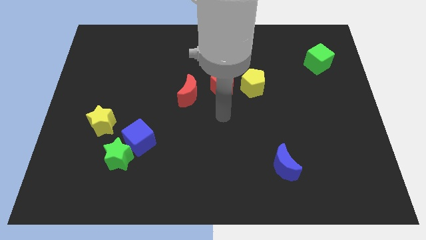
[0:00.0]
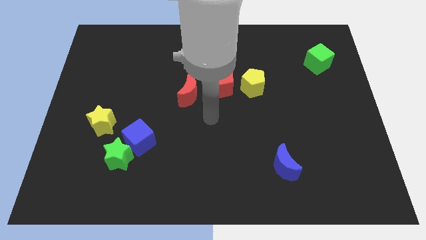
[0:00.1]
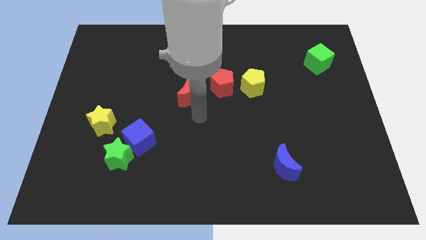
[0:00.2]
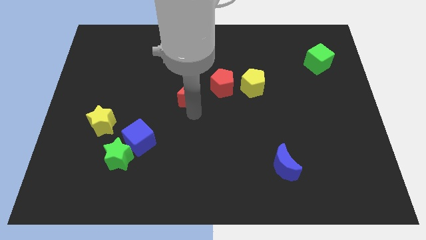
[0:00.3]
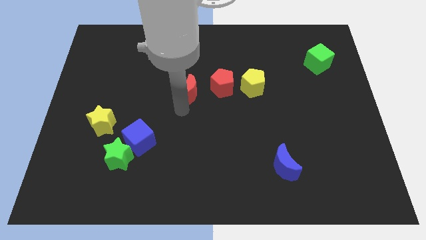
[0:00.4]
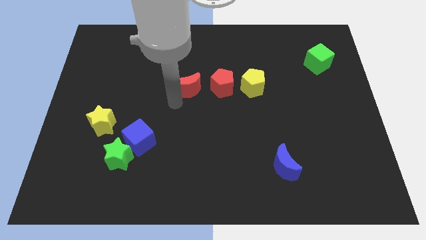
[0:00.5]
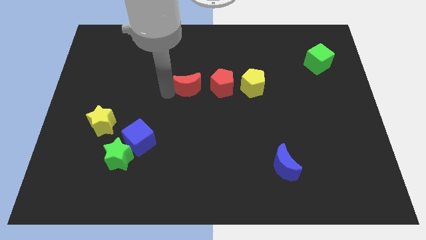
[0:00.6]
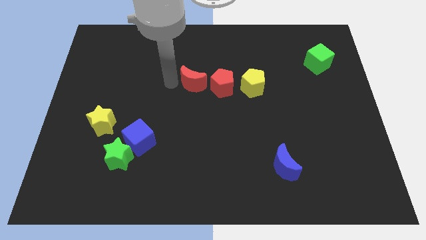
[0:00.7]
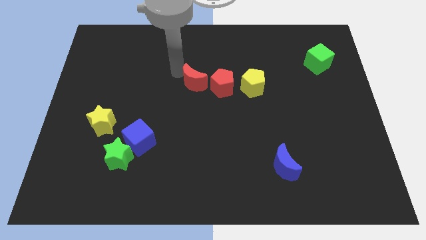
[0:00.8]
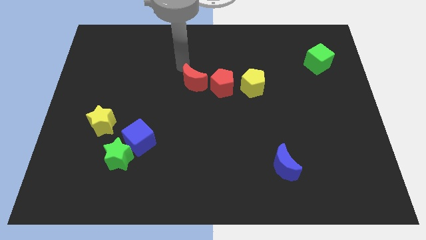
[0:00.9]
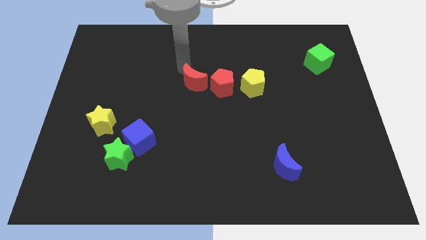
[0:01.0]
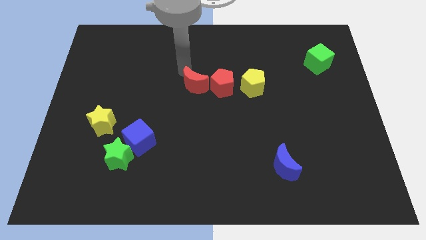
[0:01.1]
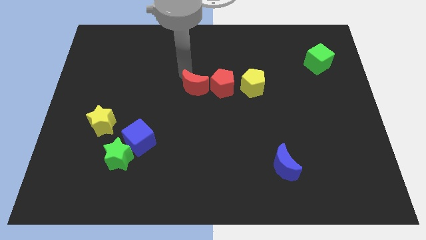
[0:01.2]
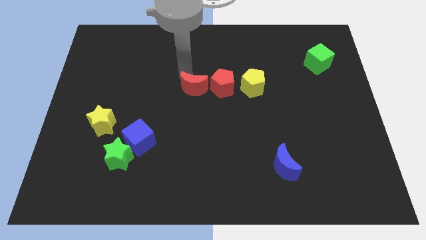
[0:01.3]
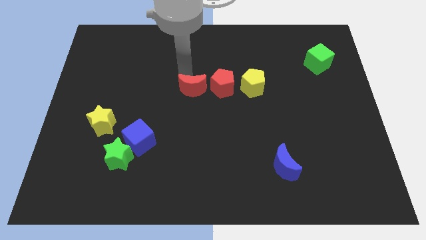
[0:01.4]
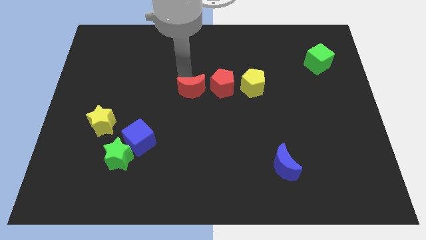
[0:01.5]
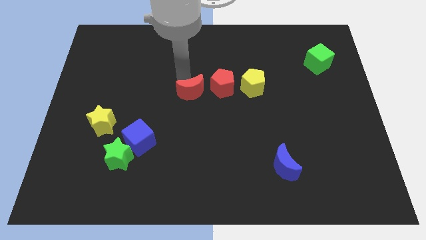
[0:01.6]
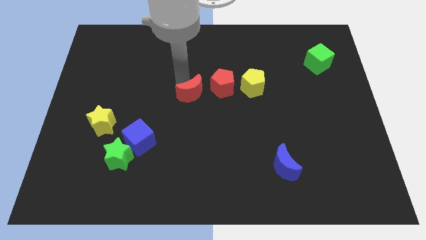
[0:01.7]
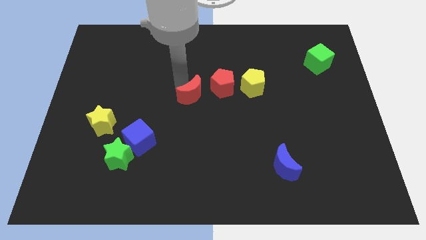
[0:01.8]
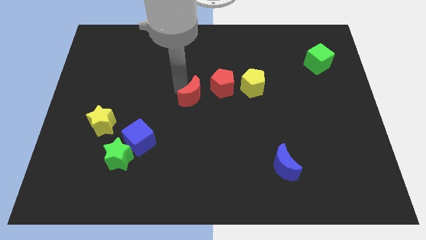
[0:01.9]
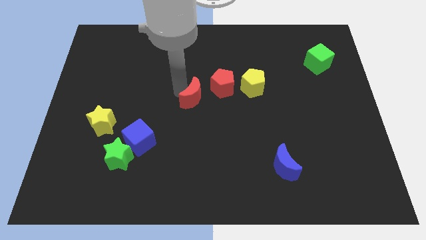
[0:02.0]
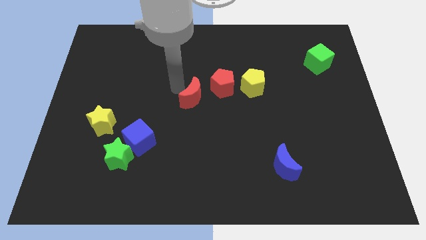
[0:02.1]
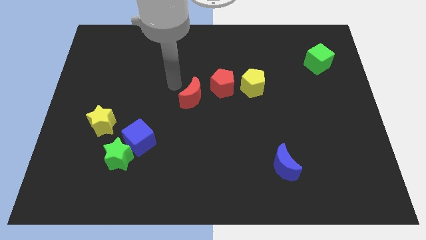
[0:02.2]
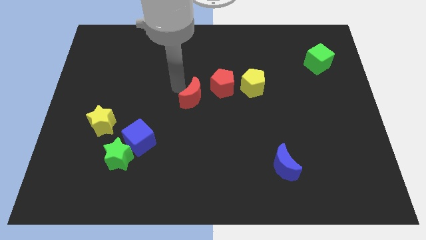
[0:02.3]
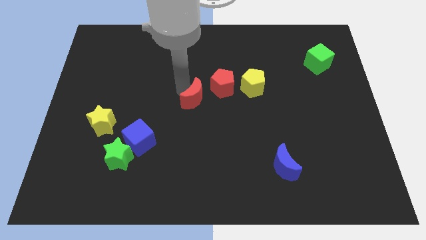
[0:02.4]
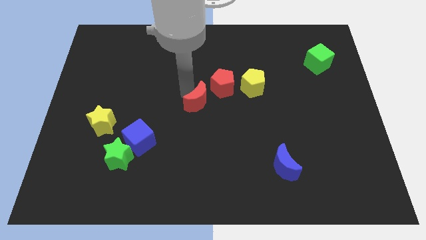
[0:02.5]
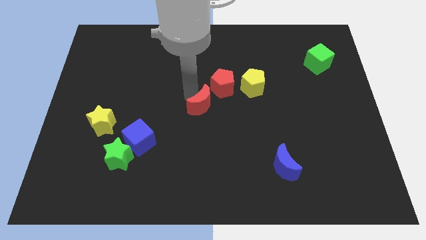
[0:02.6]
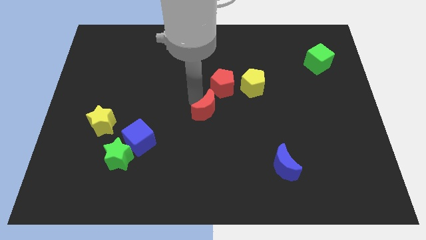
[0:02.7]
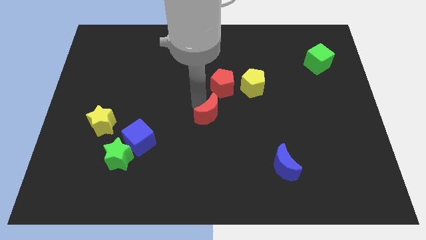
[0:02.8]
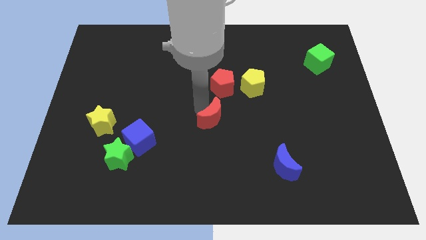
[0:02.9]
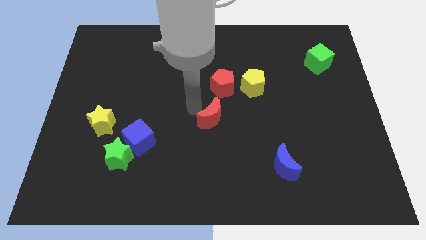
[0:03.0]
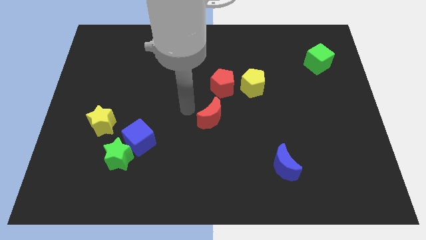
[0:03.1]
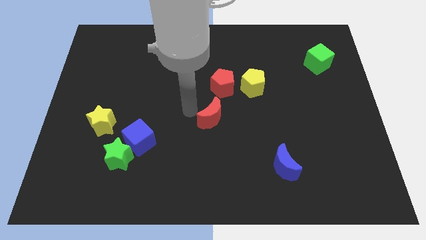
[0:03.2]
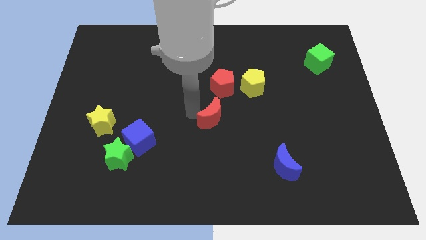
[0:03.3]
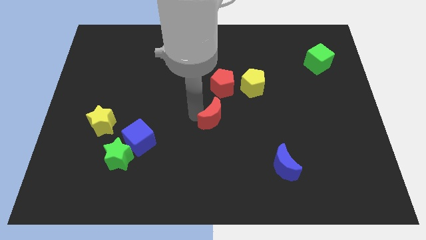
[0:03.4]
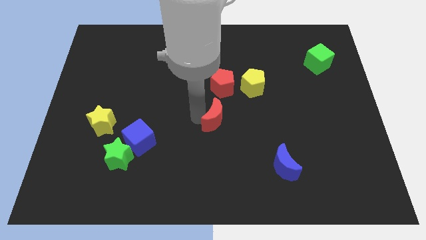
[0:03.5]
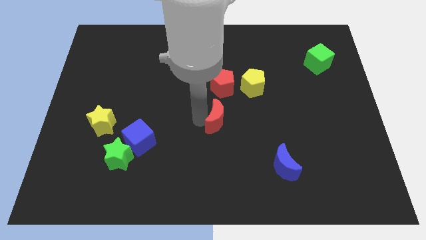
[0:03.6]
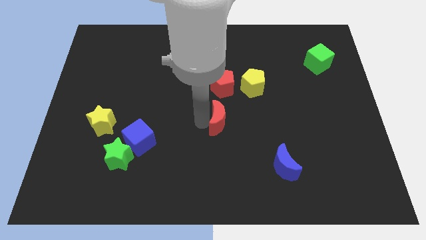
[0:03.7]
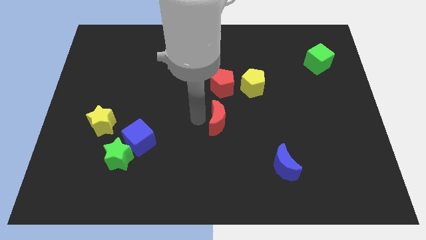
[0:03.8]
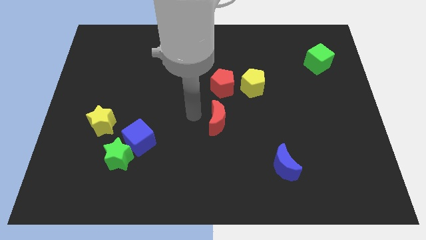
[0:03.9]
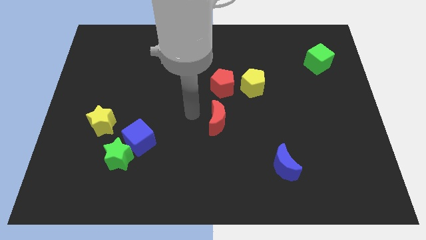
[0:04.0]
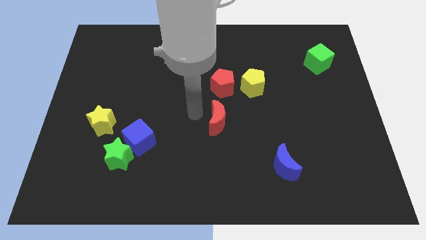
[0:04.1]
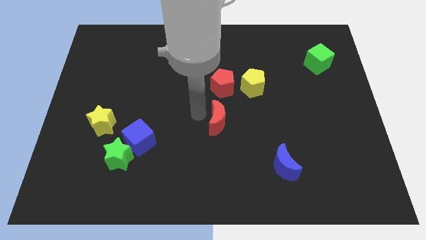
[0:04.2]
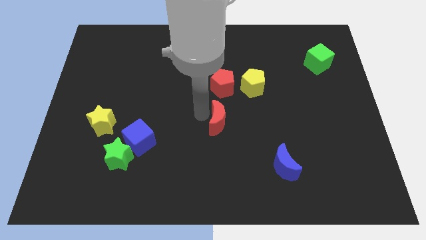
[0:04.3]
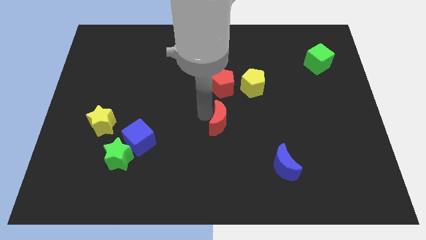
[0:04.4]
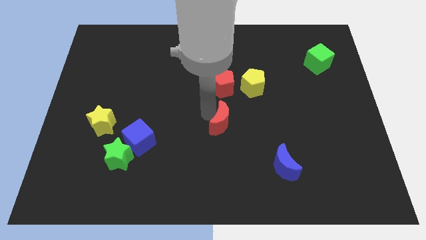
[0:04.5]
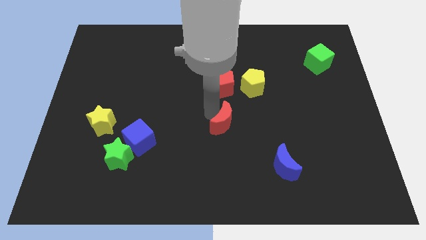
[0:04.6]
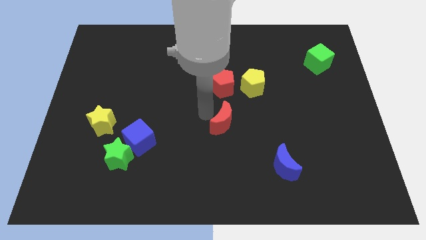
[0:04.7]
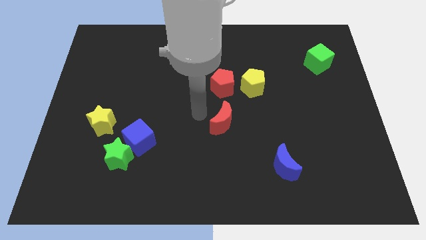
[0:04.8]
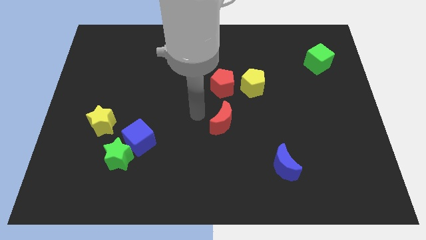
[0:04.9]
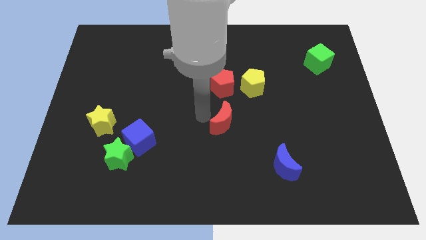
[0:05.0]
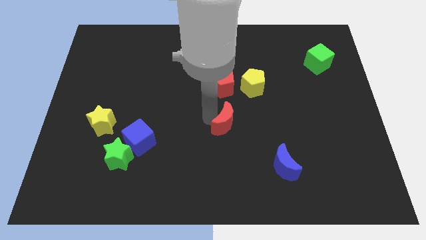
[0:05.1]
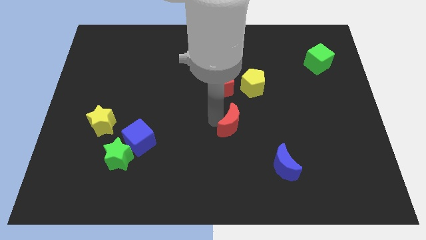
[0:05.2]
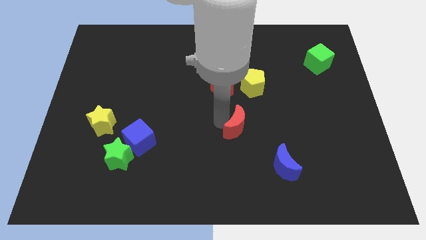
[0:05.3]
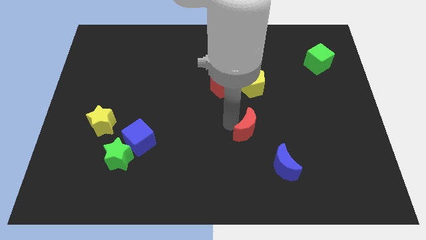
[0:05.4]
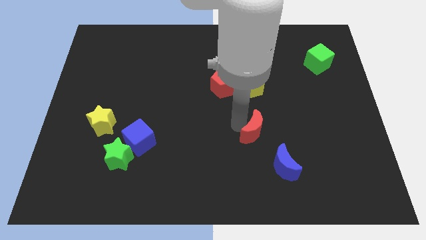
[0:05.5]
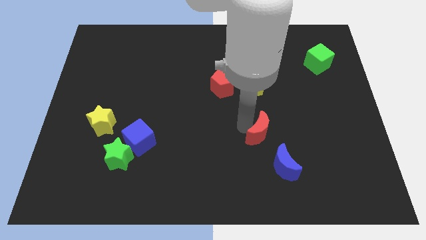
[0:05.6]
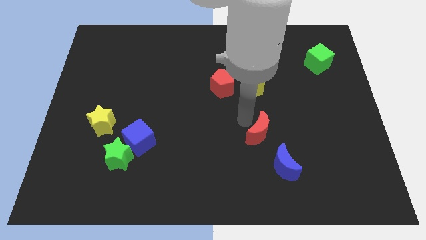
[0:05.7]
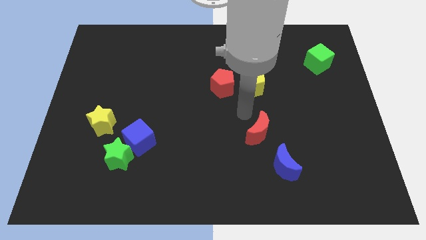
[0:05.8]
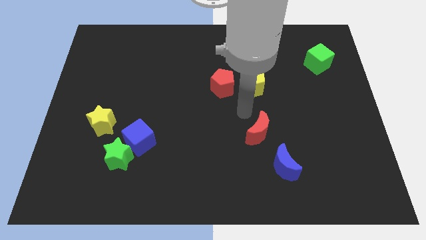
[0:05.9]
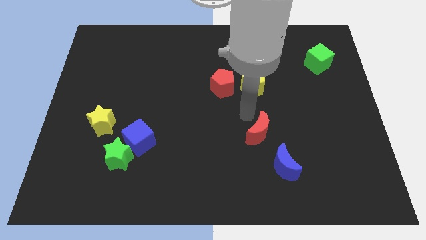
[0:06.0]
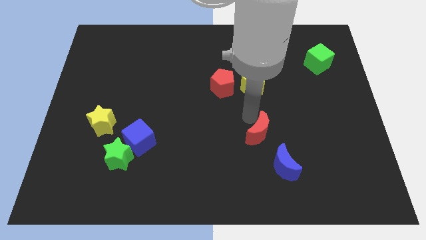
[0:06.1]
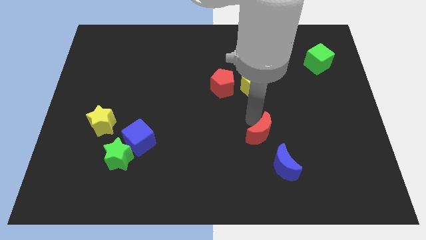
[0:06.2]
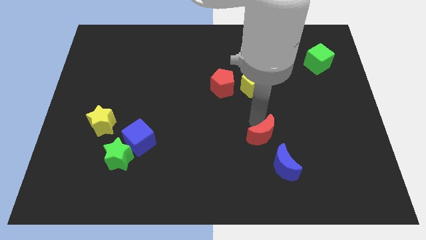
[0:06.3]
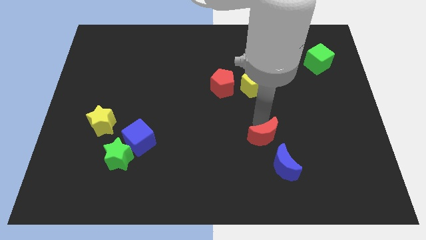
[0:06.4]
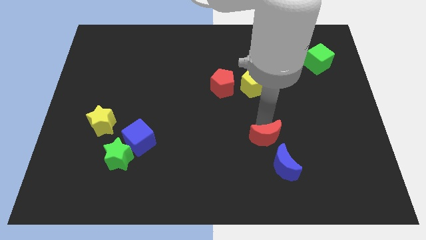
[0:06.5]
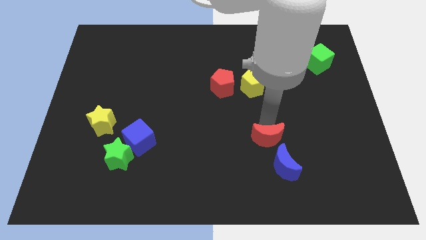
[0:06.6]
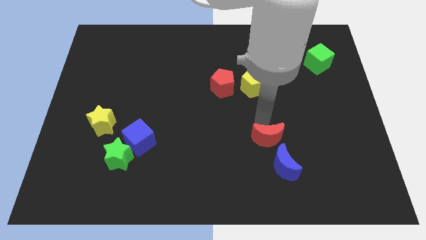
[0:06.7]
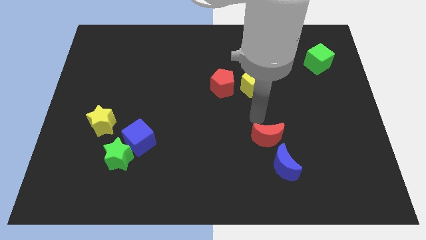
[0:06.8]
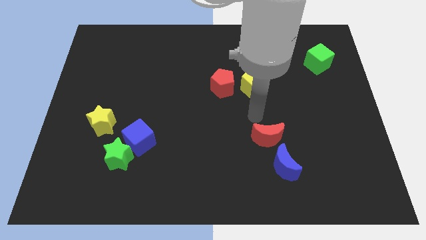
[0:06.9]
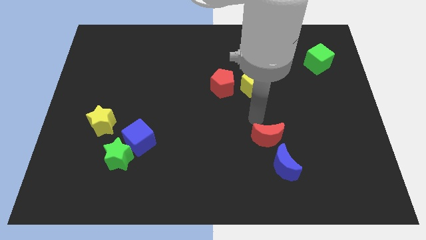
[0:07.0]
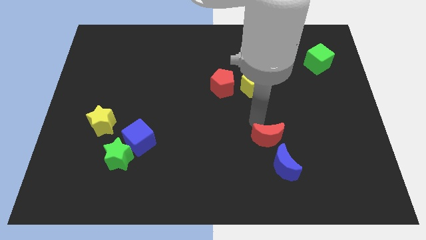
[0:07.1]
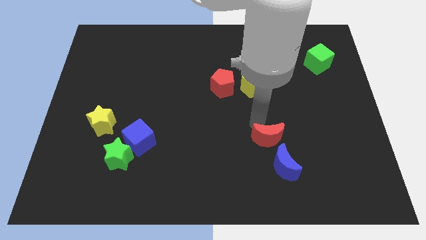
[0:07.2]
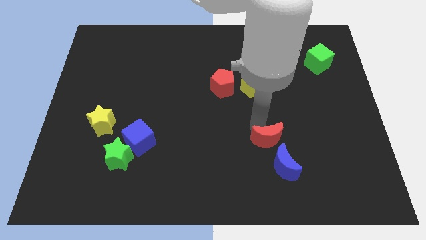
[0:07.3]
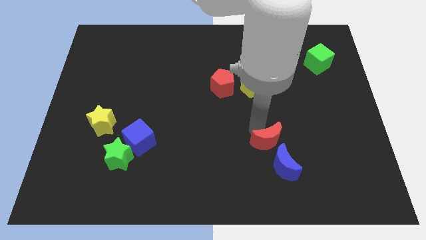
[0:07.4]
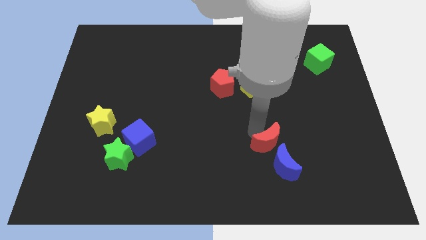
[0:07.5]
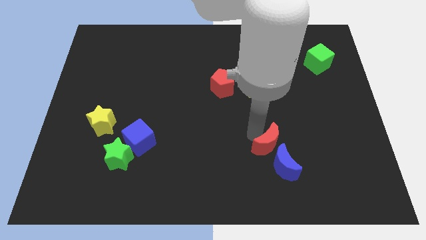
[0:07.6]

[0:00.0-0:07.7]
move the red moon to the blue moon

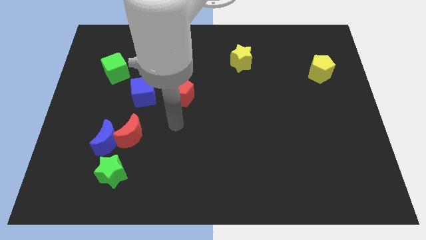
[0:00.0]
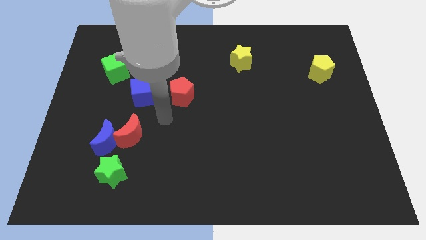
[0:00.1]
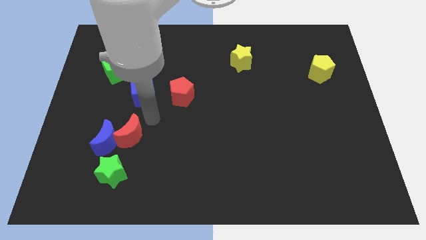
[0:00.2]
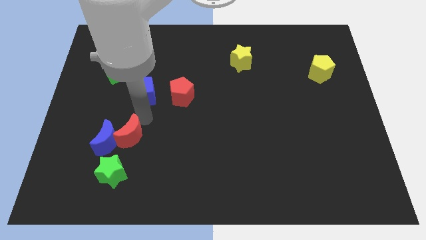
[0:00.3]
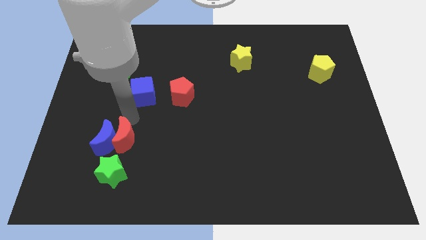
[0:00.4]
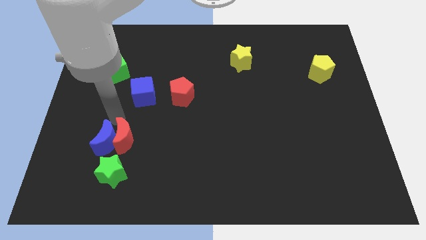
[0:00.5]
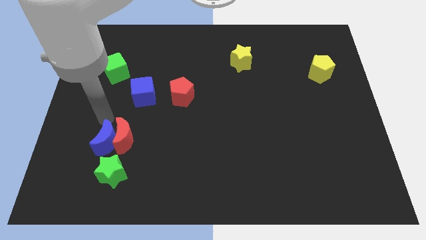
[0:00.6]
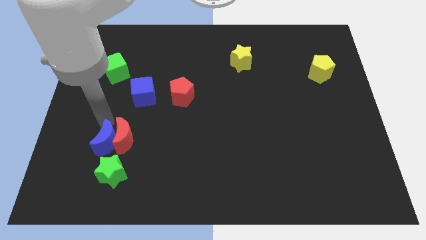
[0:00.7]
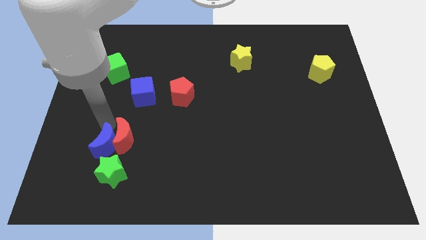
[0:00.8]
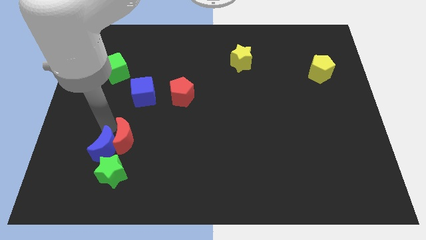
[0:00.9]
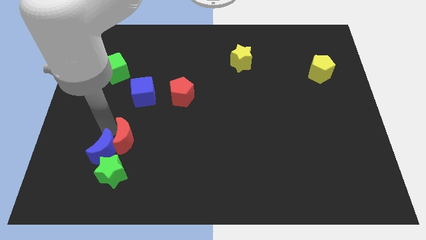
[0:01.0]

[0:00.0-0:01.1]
slide the blue moon next to the green star
